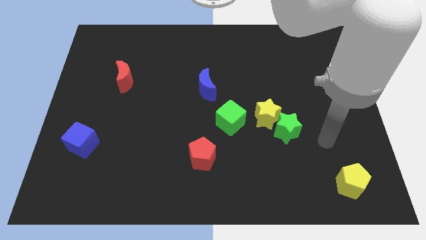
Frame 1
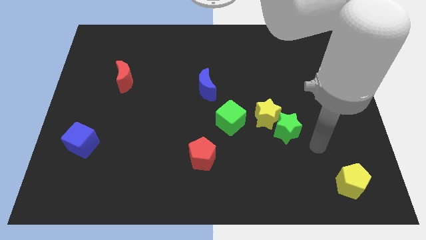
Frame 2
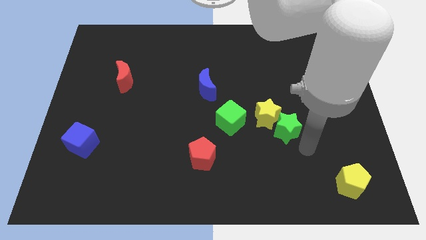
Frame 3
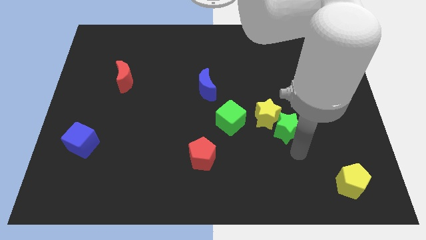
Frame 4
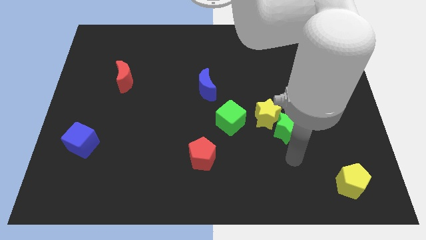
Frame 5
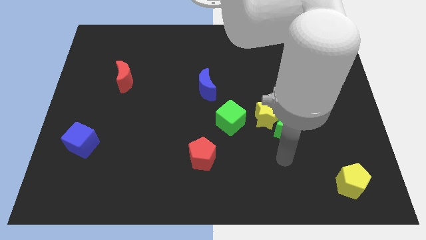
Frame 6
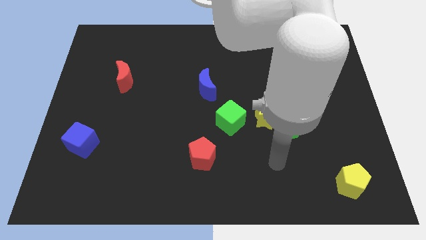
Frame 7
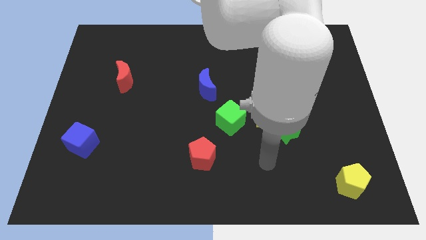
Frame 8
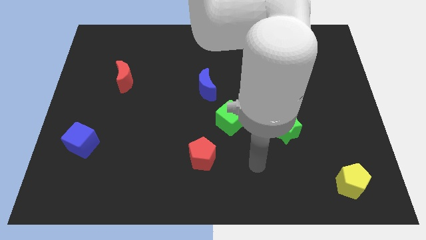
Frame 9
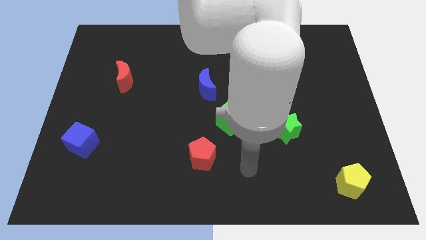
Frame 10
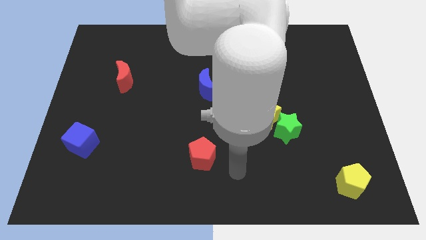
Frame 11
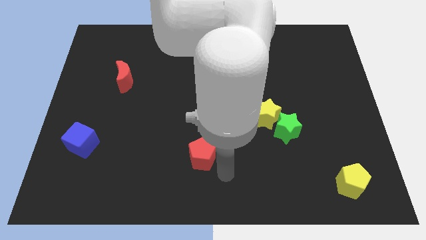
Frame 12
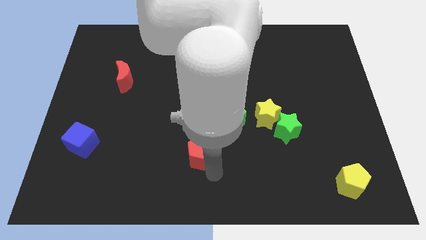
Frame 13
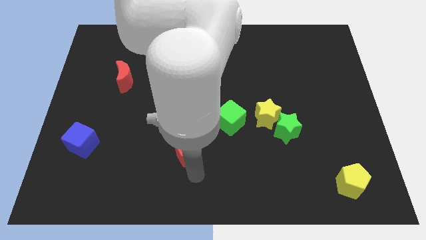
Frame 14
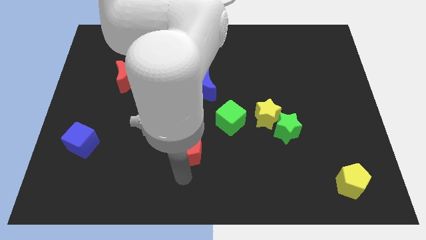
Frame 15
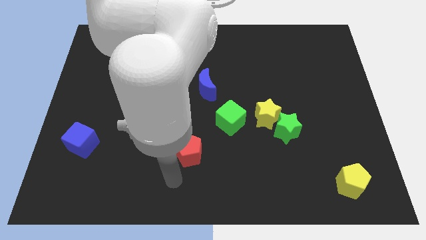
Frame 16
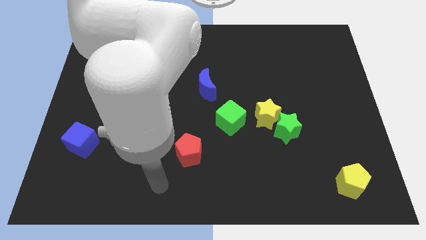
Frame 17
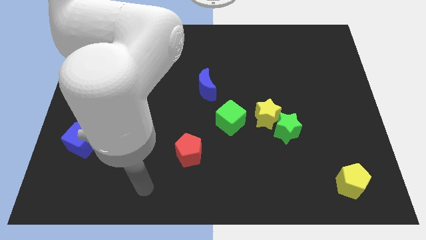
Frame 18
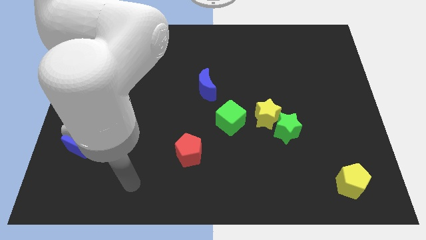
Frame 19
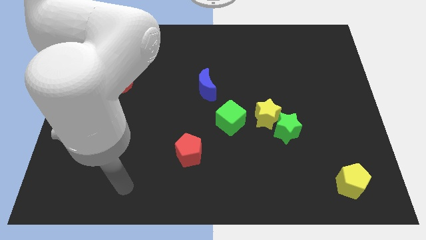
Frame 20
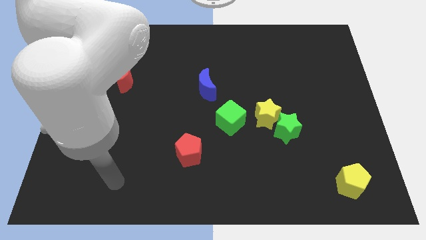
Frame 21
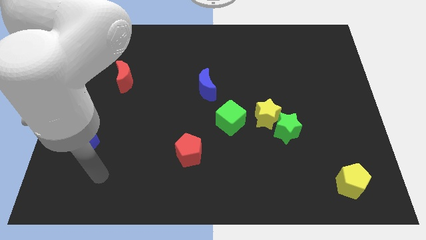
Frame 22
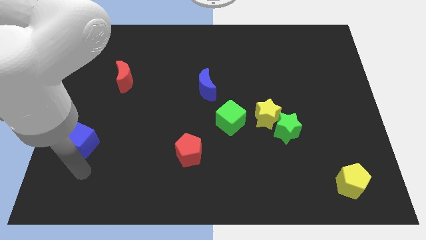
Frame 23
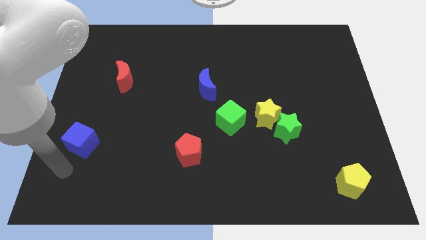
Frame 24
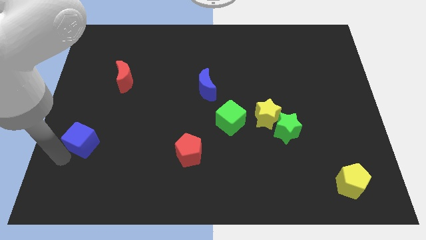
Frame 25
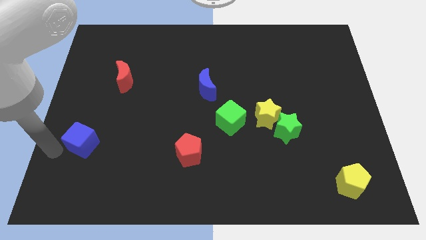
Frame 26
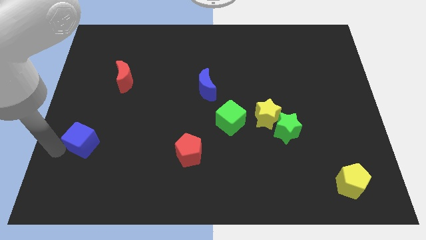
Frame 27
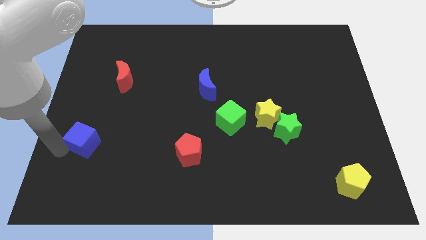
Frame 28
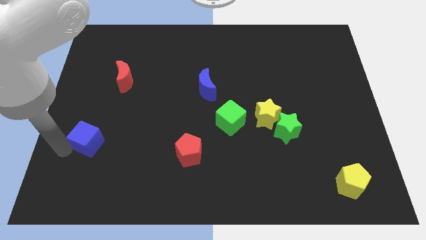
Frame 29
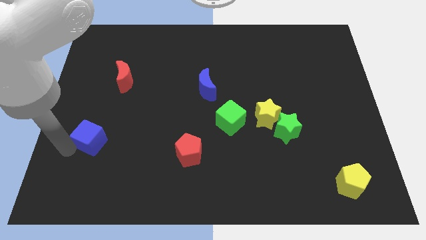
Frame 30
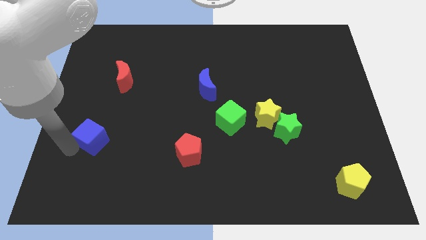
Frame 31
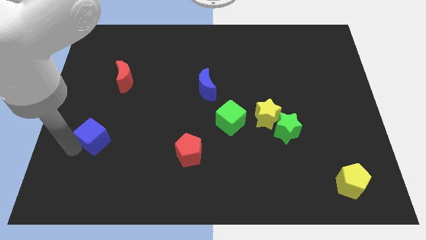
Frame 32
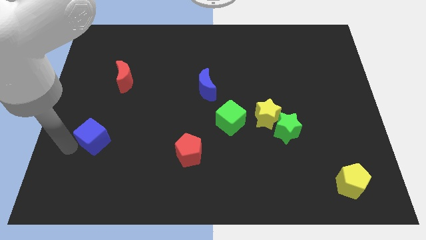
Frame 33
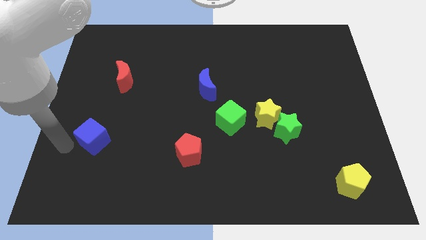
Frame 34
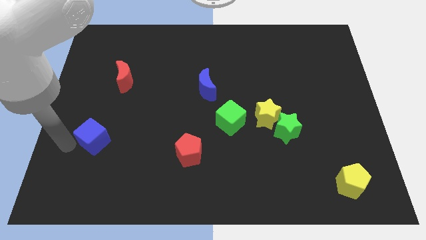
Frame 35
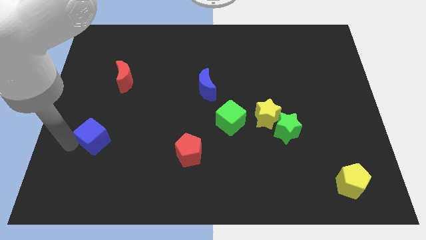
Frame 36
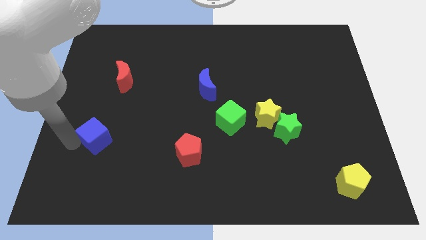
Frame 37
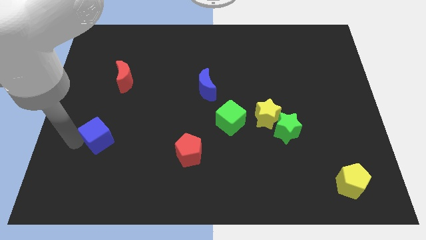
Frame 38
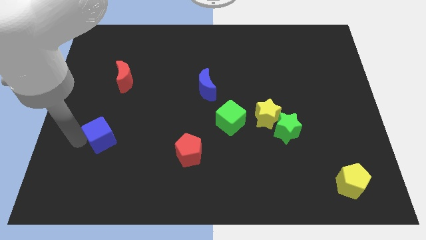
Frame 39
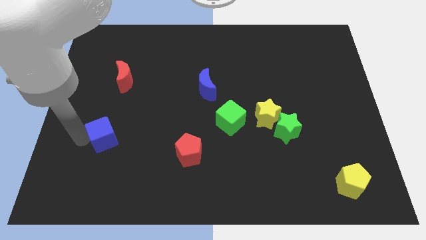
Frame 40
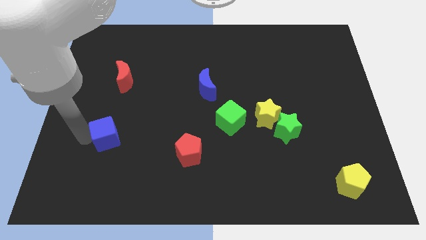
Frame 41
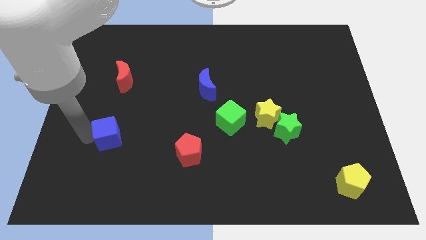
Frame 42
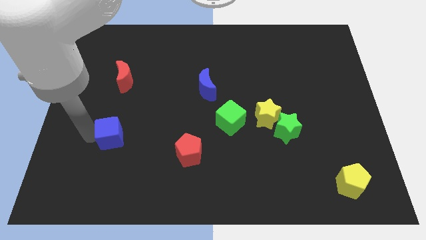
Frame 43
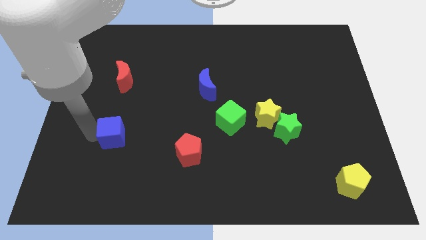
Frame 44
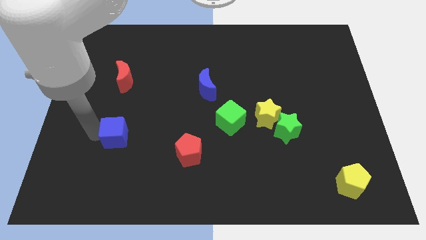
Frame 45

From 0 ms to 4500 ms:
push the blue cube a bit to the right

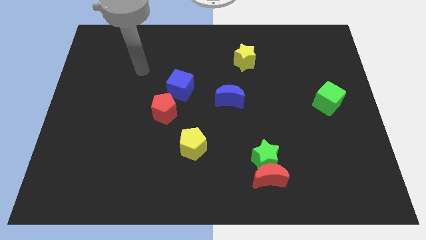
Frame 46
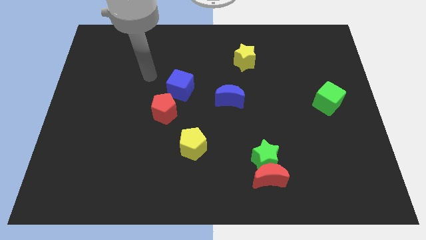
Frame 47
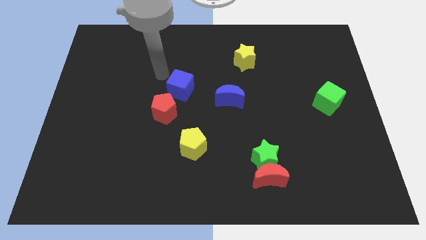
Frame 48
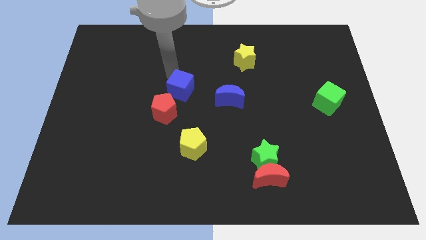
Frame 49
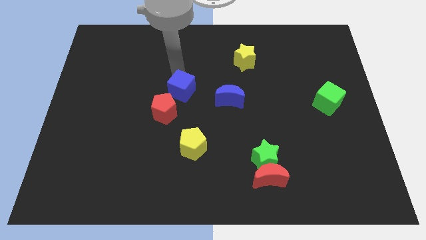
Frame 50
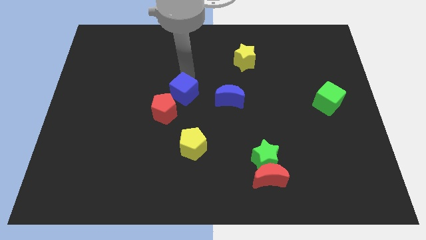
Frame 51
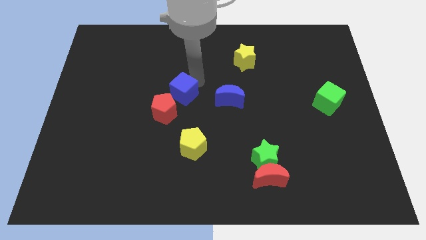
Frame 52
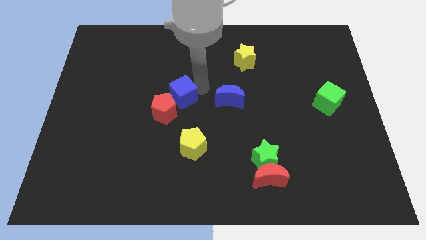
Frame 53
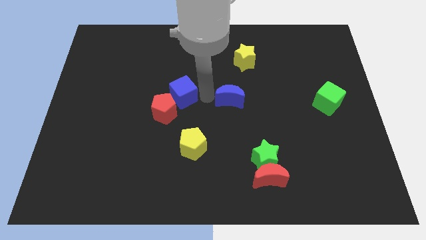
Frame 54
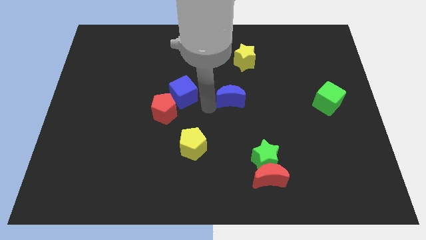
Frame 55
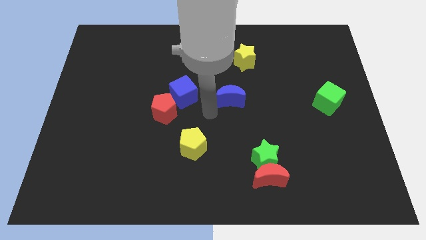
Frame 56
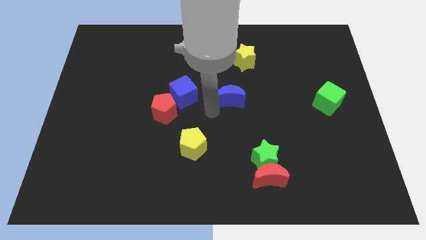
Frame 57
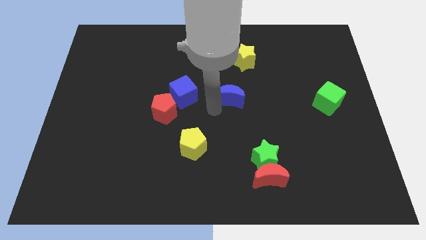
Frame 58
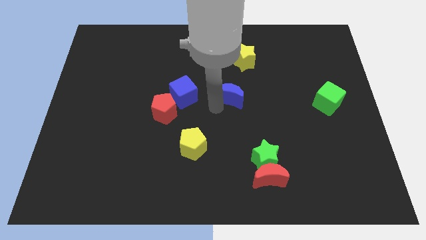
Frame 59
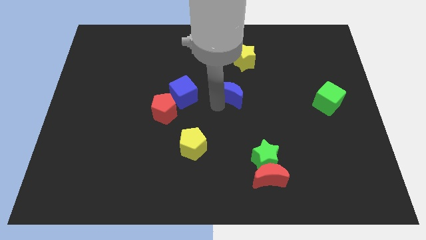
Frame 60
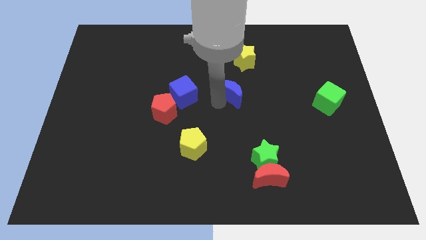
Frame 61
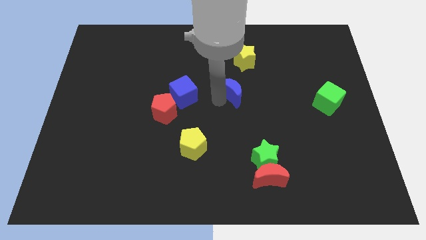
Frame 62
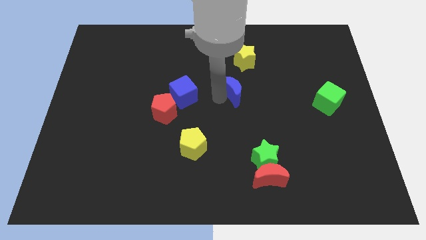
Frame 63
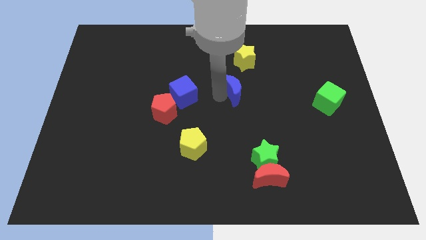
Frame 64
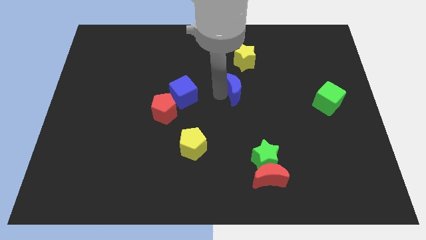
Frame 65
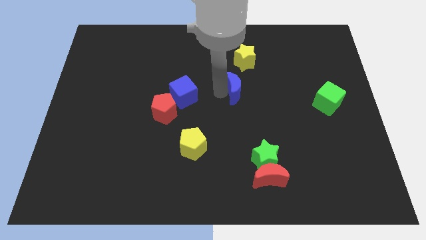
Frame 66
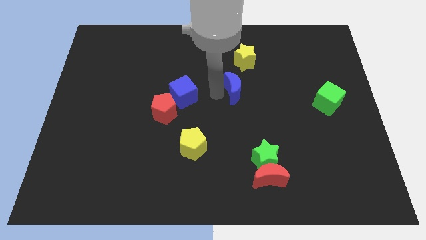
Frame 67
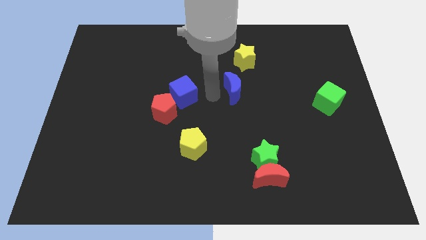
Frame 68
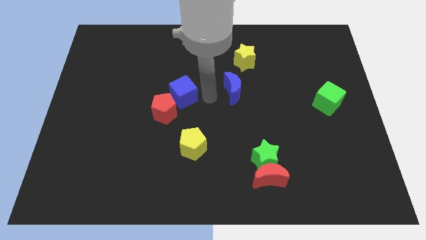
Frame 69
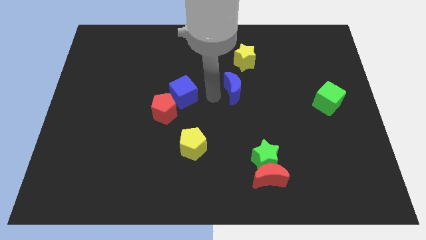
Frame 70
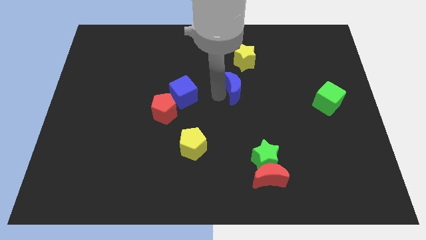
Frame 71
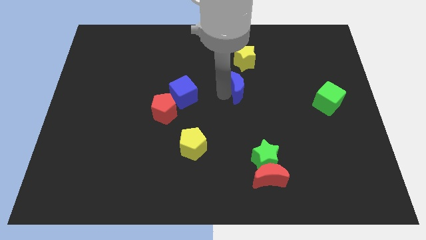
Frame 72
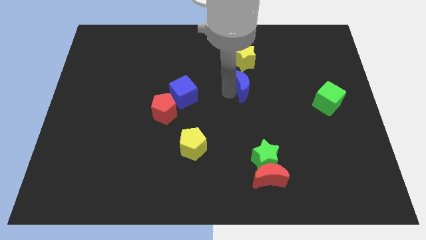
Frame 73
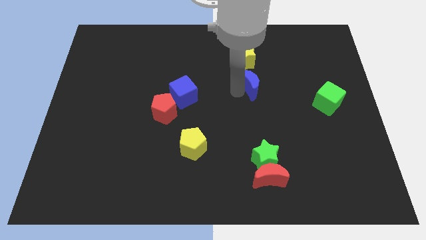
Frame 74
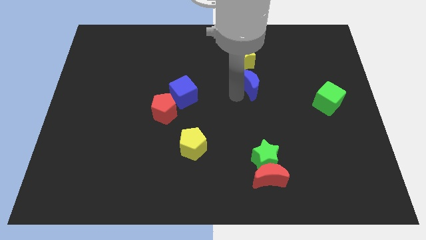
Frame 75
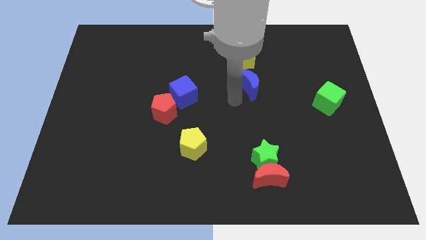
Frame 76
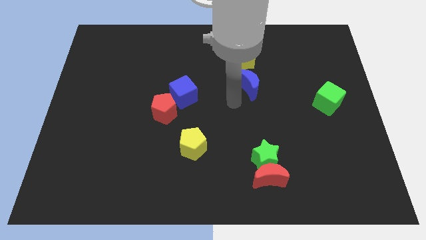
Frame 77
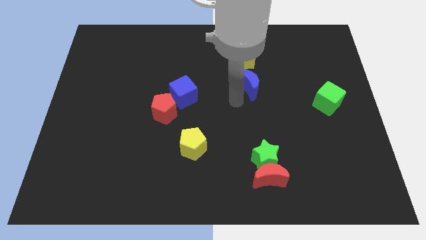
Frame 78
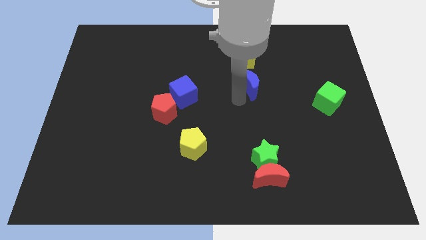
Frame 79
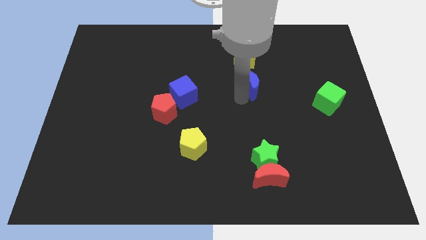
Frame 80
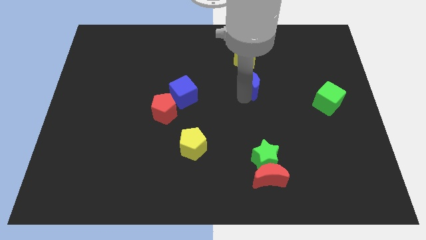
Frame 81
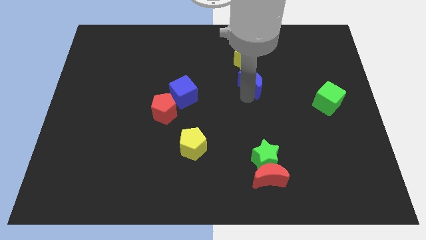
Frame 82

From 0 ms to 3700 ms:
slide the blue moon up and right a little
